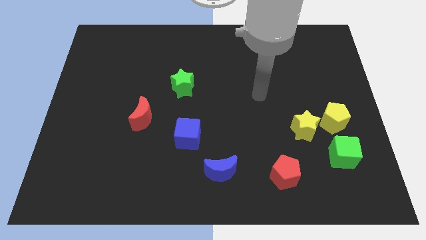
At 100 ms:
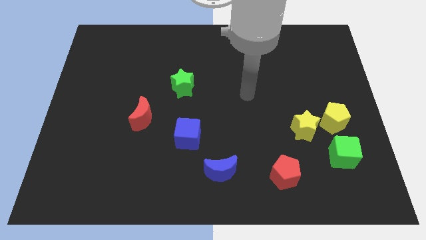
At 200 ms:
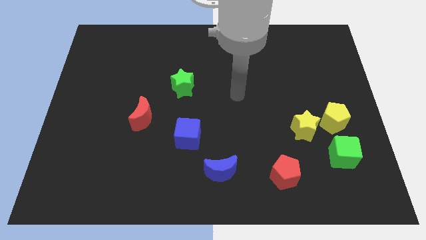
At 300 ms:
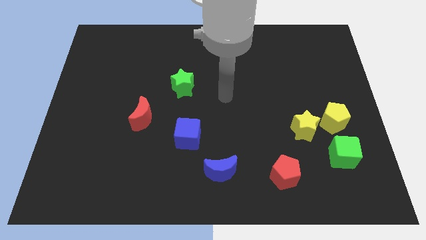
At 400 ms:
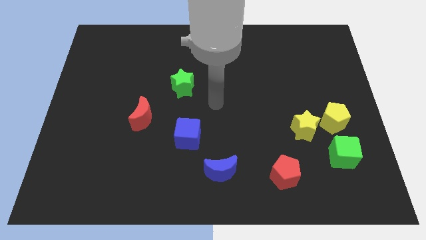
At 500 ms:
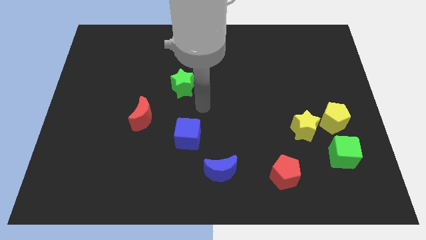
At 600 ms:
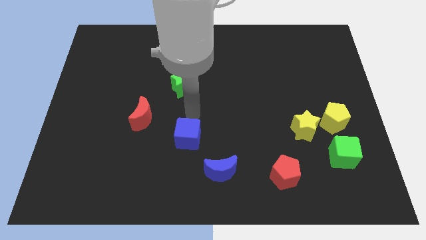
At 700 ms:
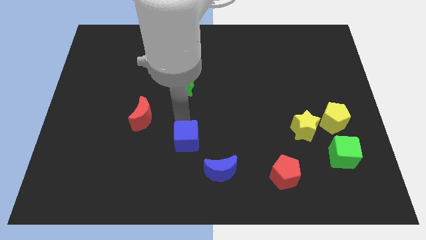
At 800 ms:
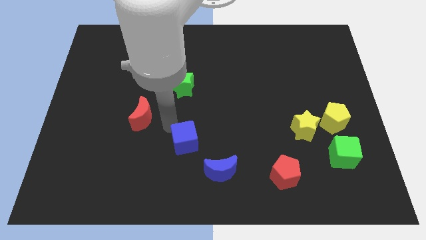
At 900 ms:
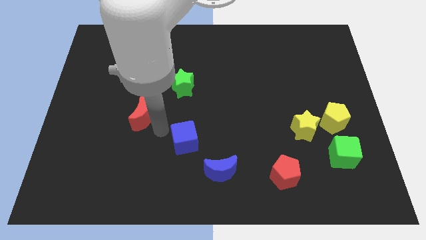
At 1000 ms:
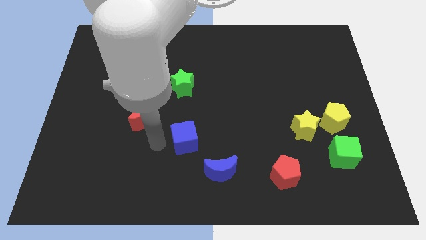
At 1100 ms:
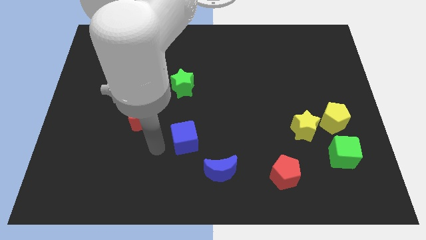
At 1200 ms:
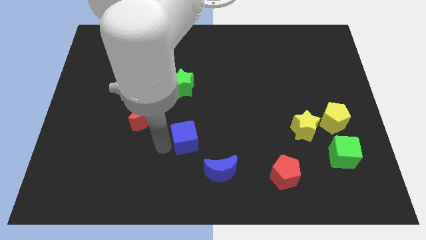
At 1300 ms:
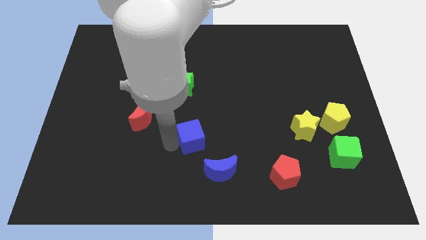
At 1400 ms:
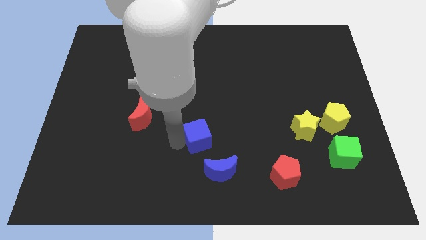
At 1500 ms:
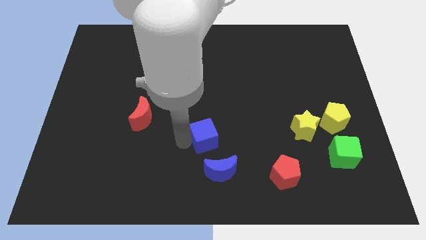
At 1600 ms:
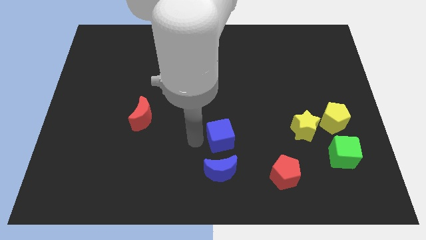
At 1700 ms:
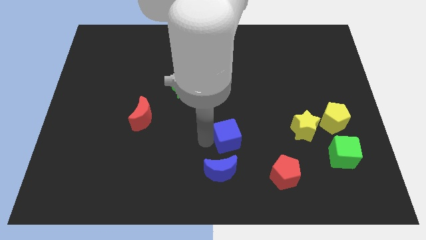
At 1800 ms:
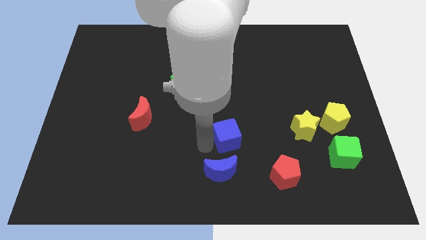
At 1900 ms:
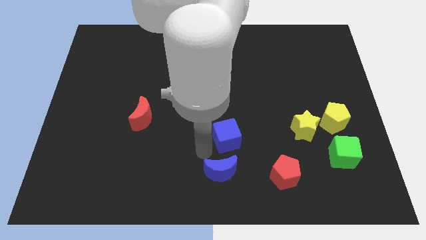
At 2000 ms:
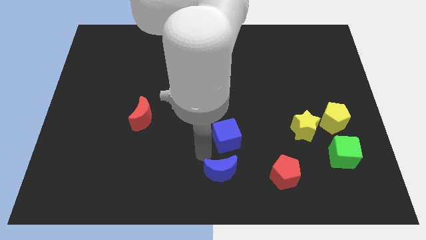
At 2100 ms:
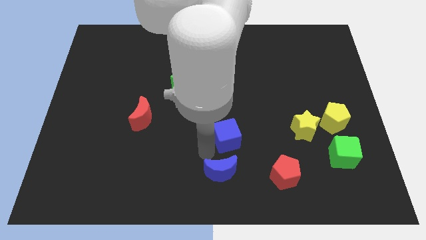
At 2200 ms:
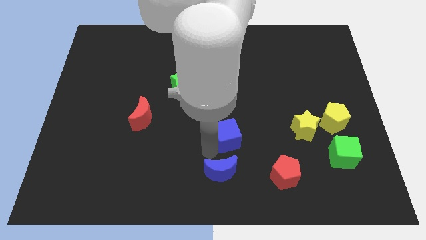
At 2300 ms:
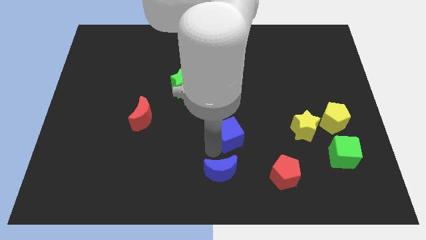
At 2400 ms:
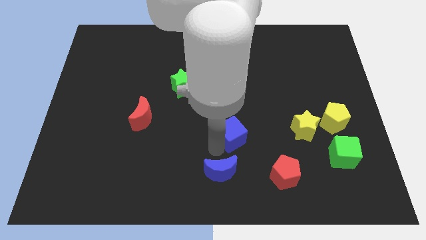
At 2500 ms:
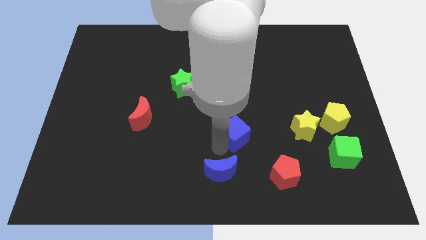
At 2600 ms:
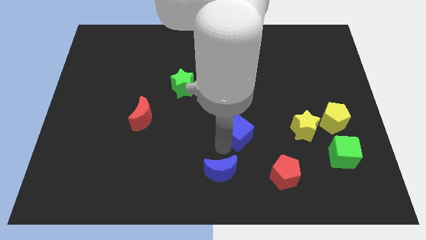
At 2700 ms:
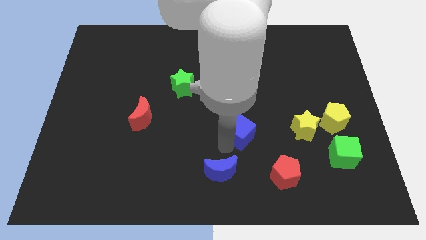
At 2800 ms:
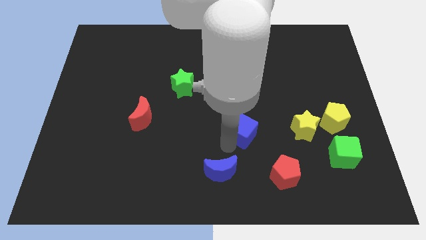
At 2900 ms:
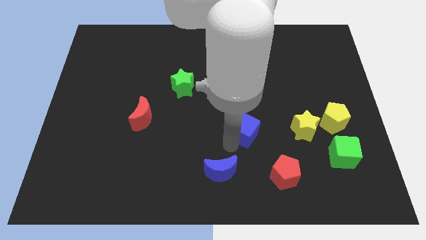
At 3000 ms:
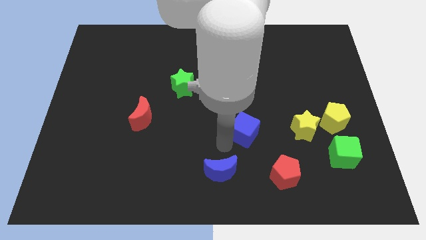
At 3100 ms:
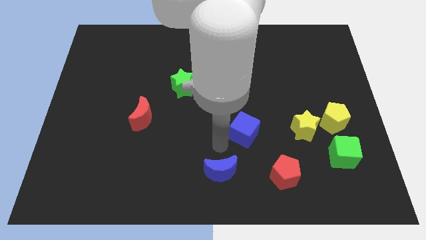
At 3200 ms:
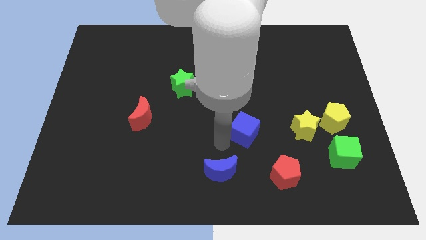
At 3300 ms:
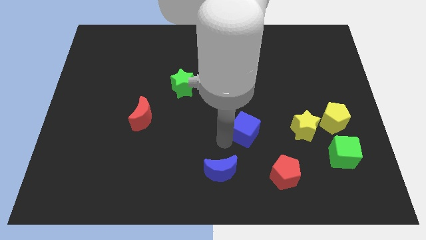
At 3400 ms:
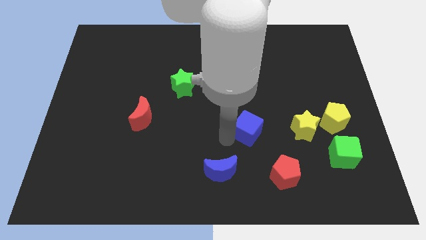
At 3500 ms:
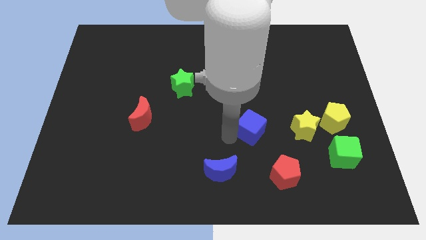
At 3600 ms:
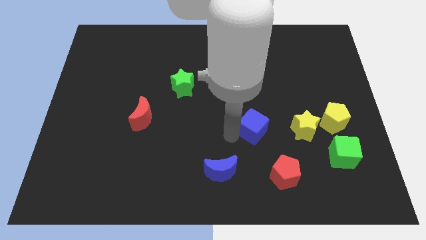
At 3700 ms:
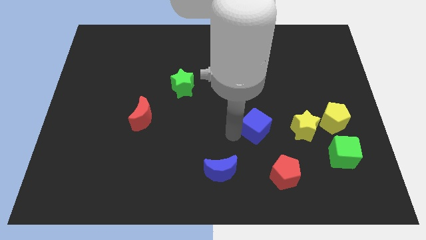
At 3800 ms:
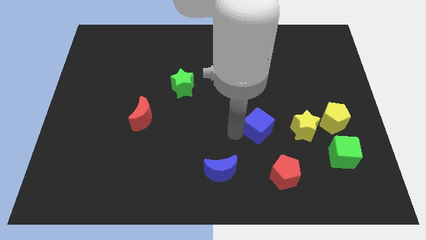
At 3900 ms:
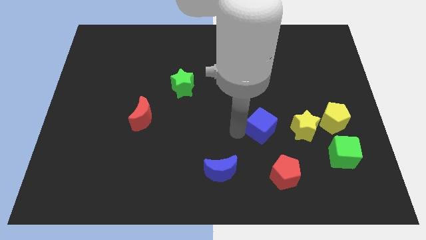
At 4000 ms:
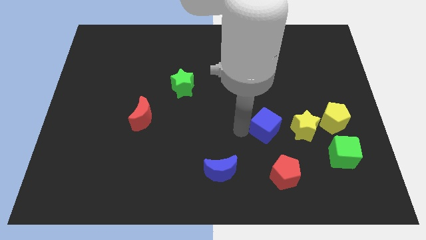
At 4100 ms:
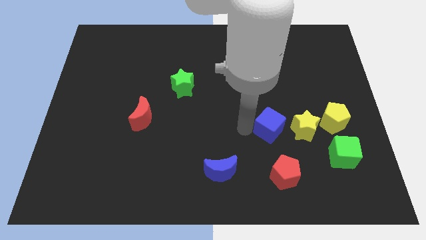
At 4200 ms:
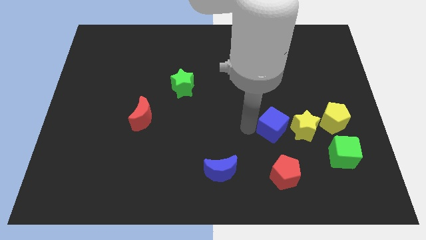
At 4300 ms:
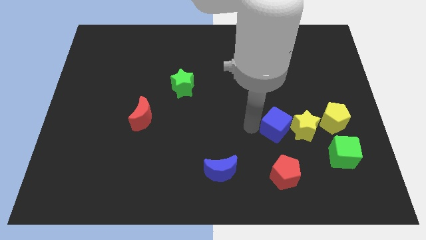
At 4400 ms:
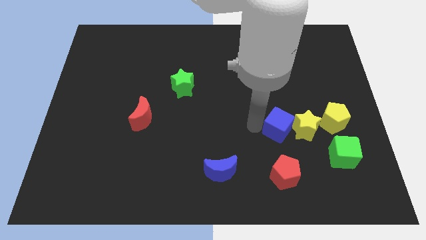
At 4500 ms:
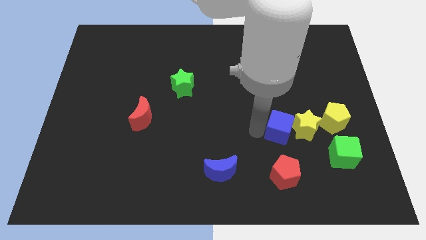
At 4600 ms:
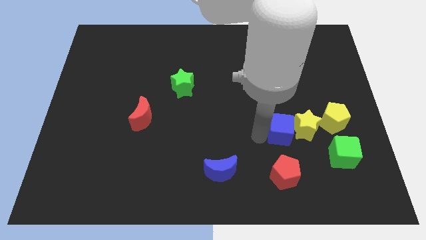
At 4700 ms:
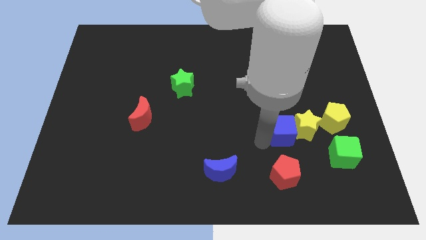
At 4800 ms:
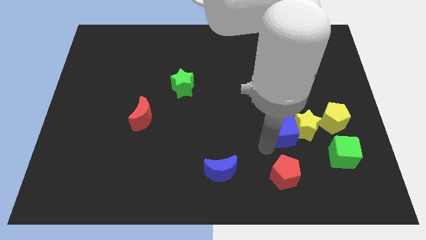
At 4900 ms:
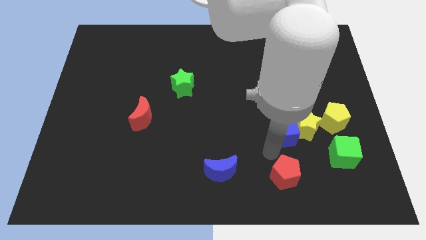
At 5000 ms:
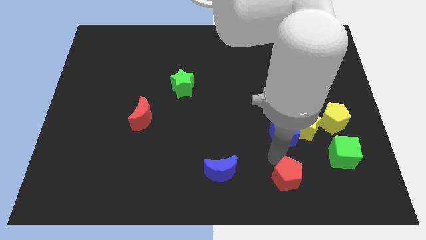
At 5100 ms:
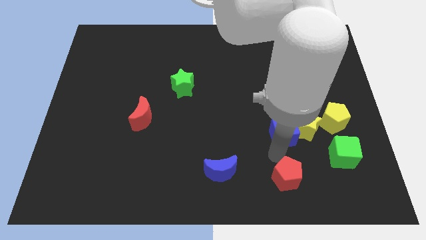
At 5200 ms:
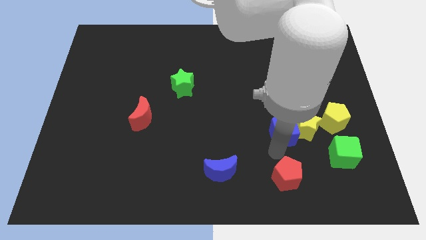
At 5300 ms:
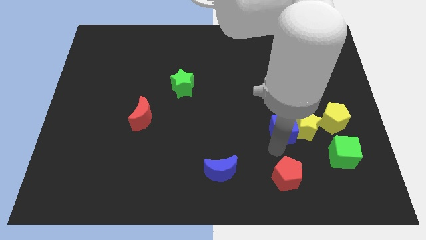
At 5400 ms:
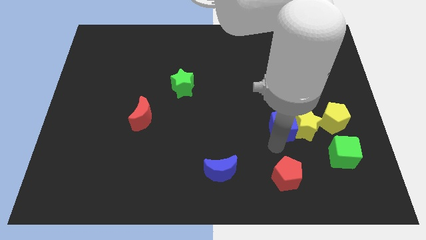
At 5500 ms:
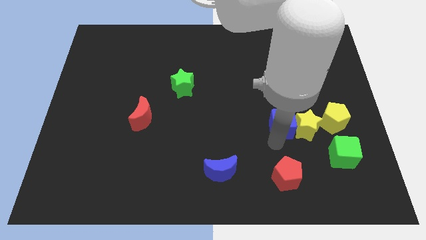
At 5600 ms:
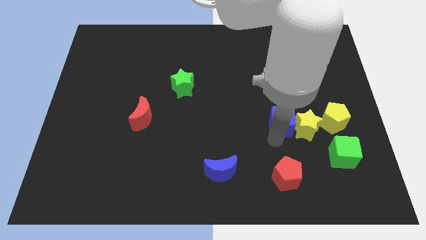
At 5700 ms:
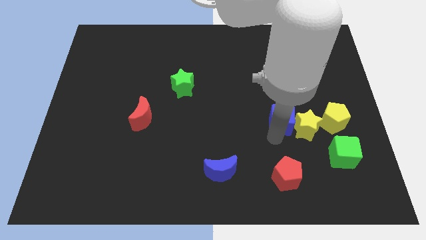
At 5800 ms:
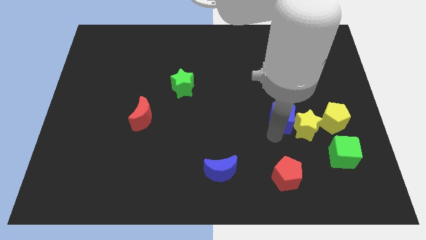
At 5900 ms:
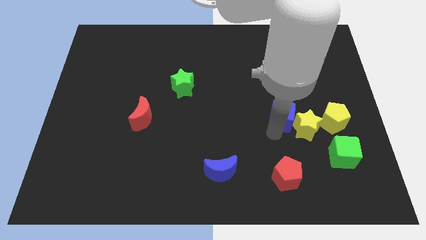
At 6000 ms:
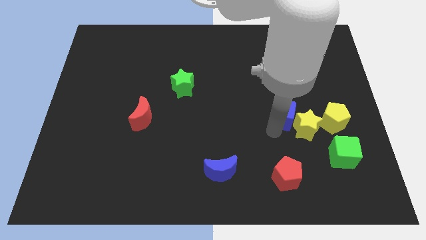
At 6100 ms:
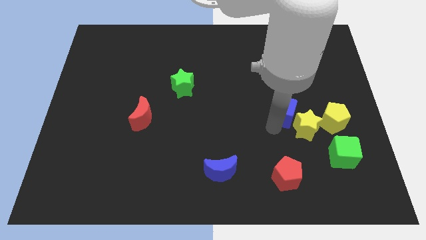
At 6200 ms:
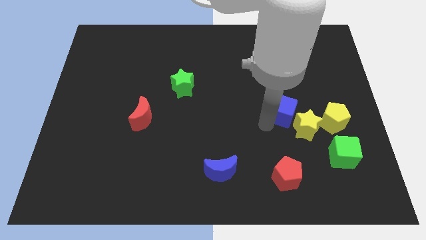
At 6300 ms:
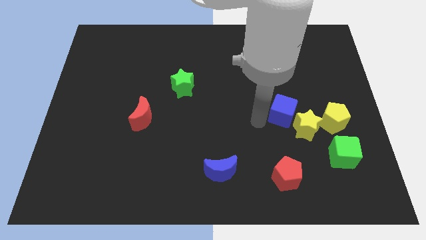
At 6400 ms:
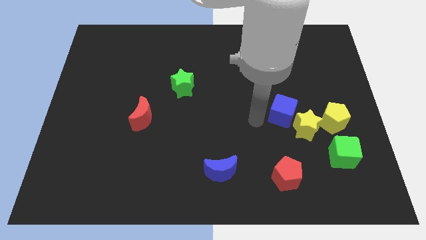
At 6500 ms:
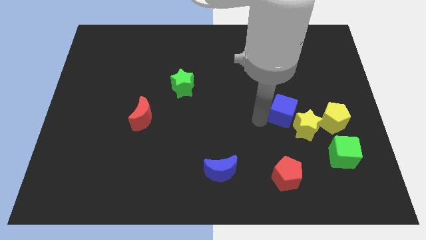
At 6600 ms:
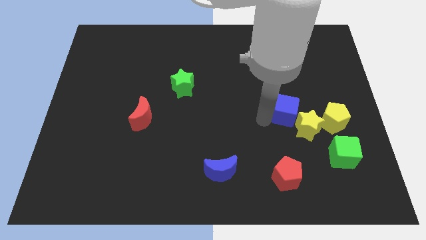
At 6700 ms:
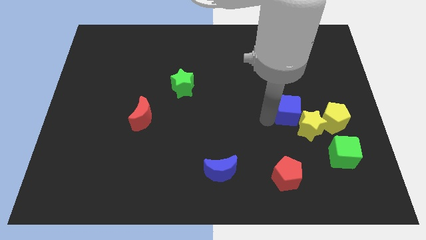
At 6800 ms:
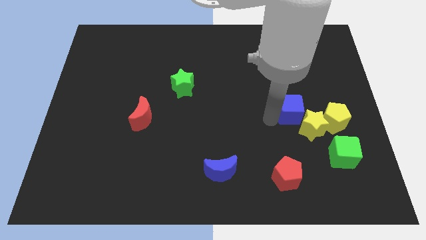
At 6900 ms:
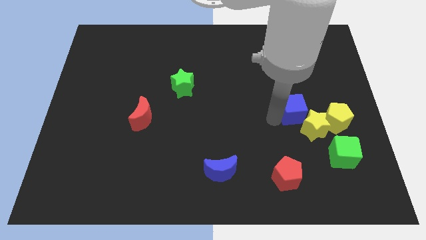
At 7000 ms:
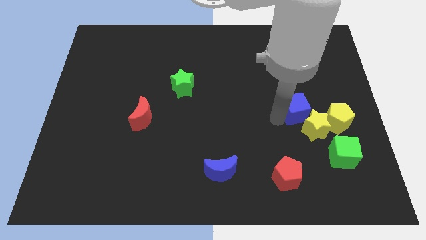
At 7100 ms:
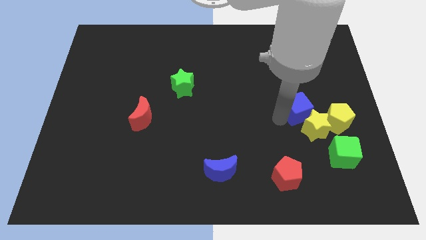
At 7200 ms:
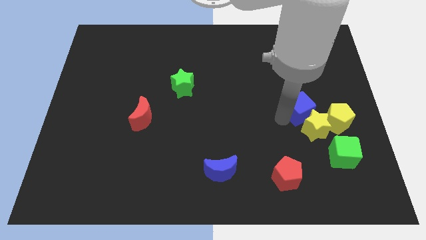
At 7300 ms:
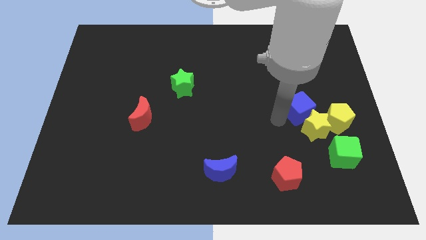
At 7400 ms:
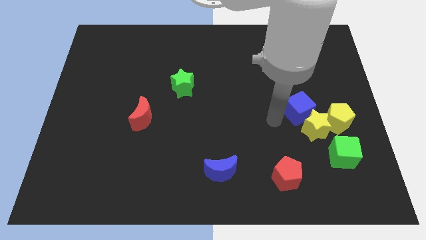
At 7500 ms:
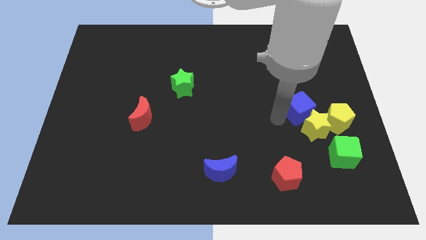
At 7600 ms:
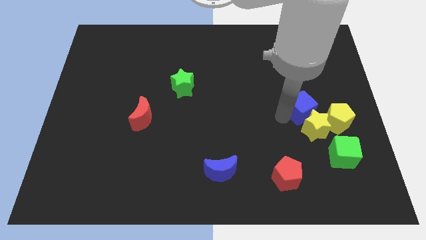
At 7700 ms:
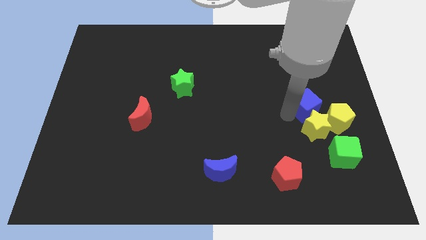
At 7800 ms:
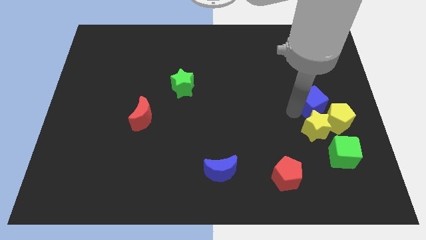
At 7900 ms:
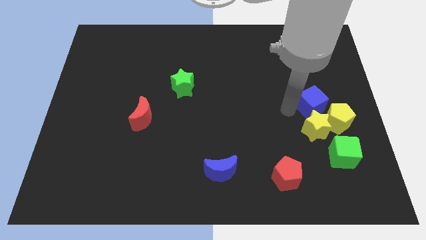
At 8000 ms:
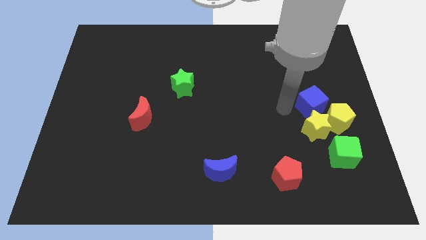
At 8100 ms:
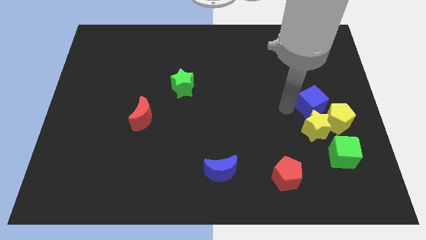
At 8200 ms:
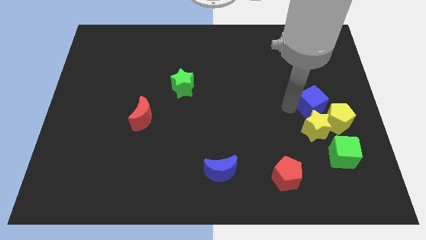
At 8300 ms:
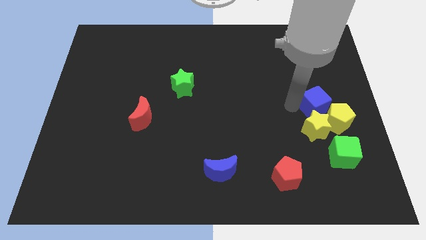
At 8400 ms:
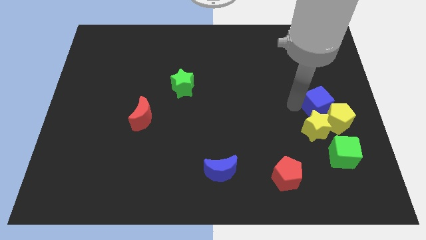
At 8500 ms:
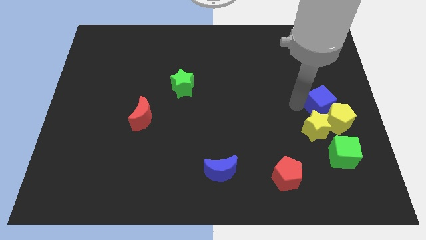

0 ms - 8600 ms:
move the blue cube to the right side of the board
